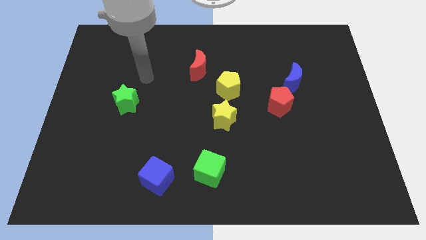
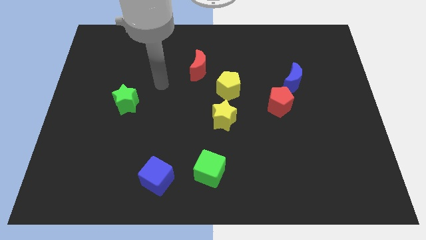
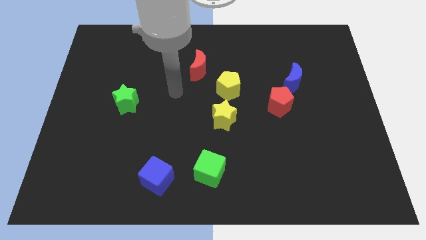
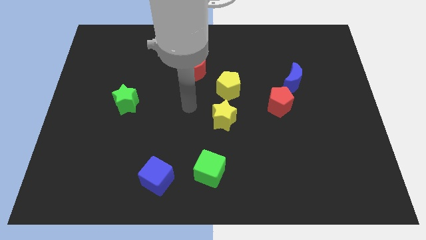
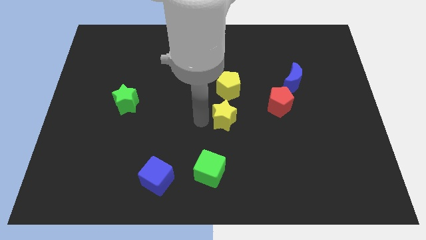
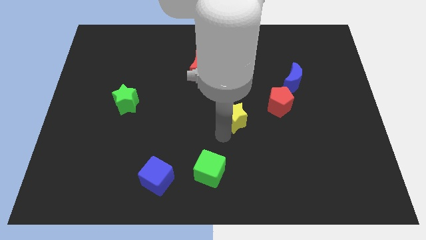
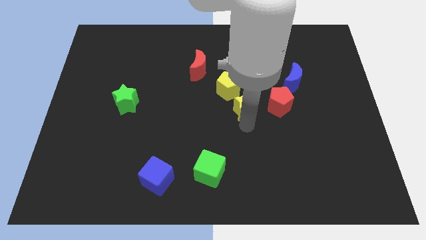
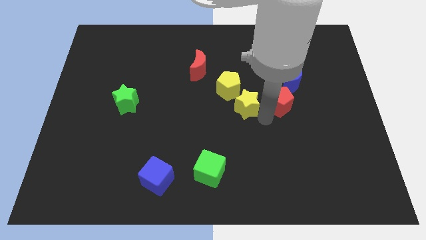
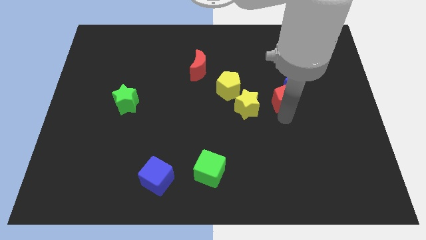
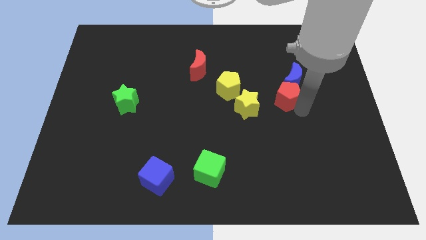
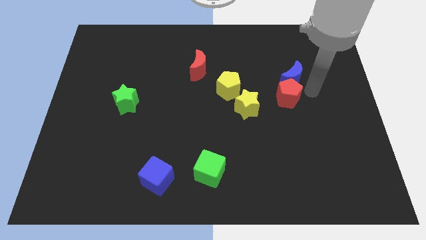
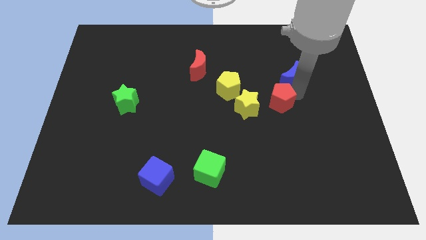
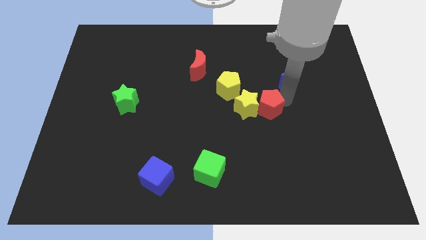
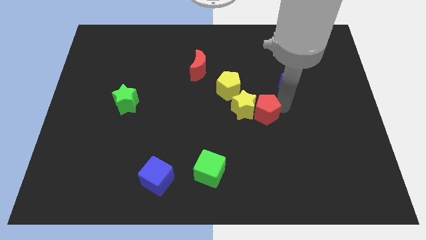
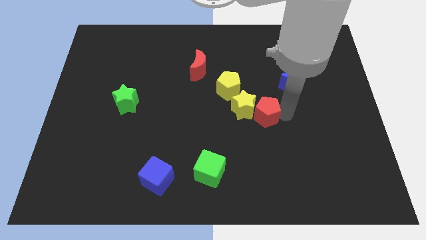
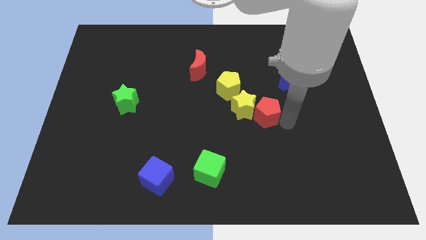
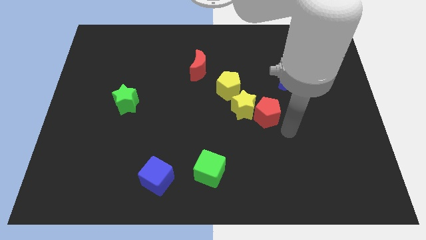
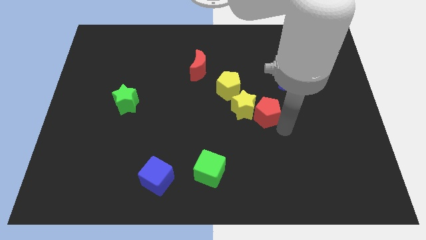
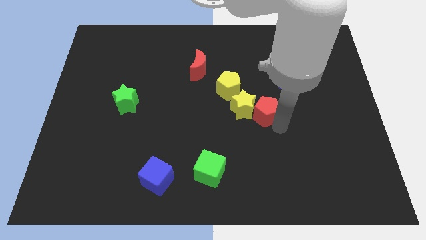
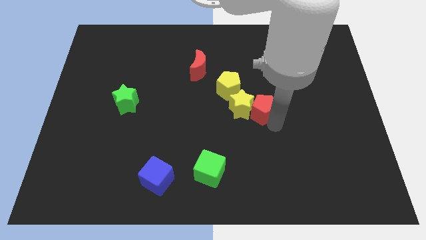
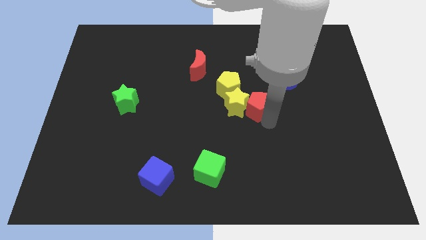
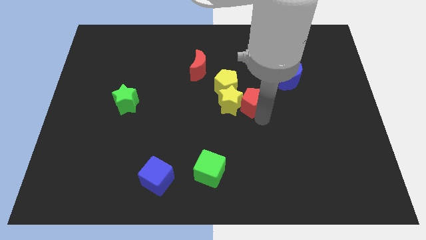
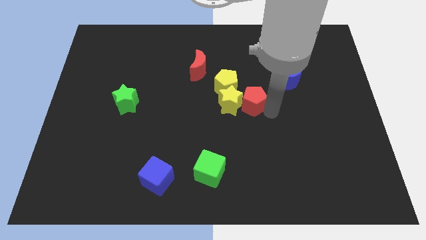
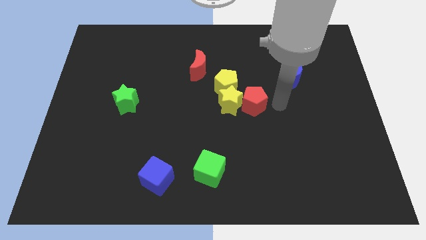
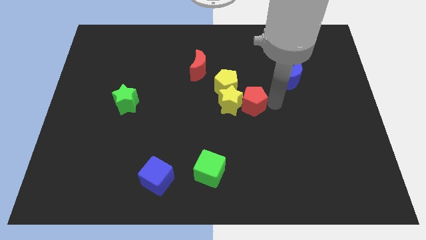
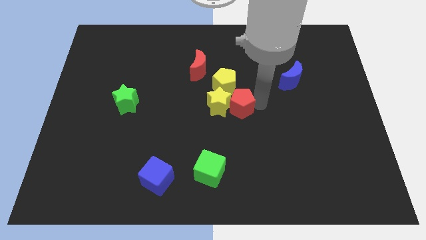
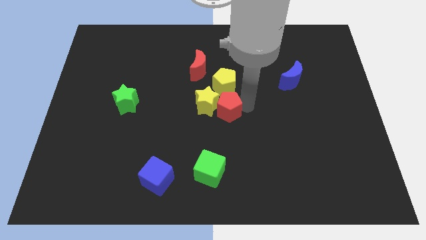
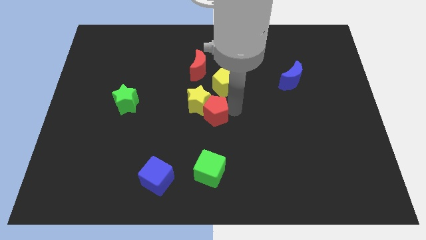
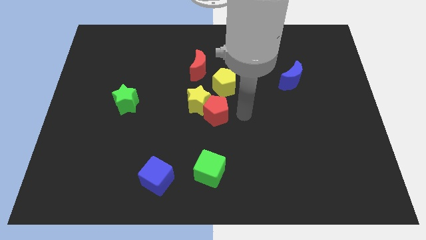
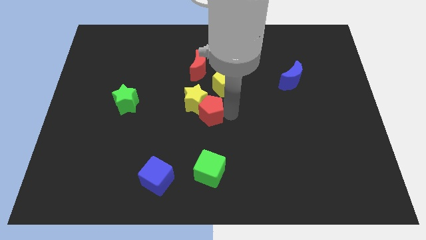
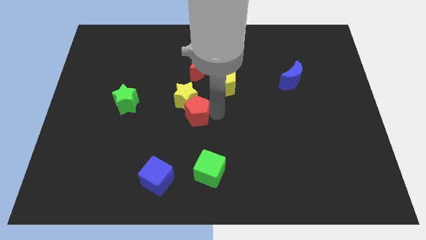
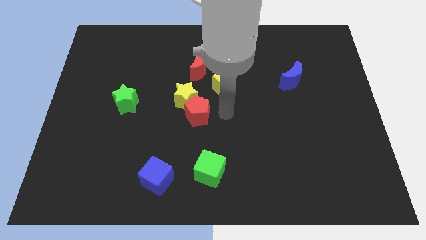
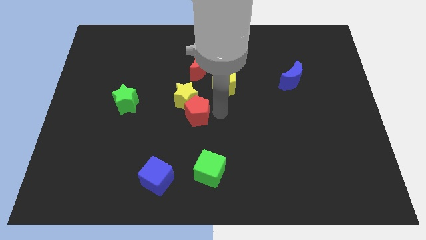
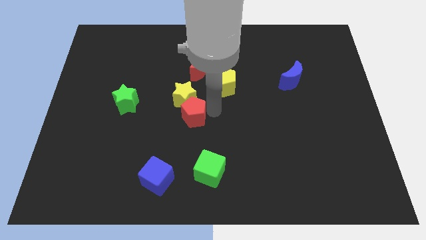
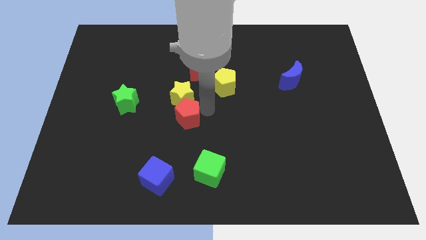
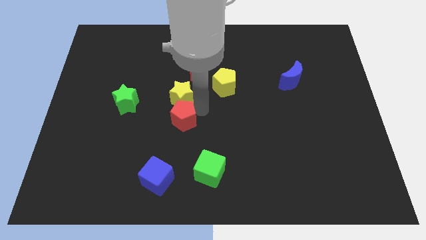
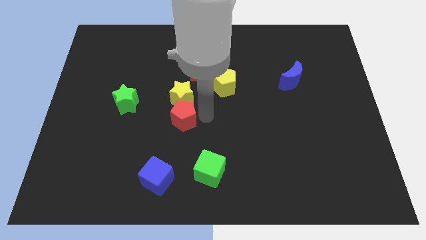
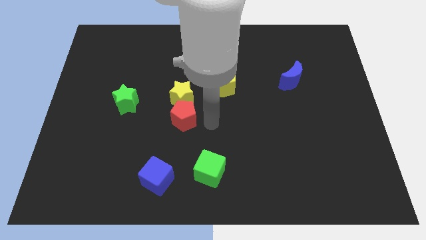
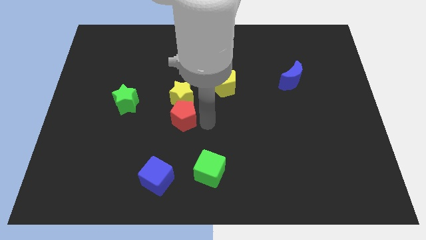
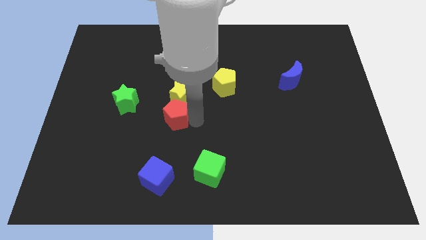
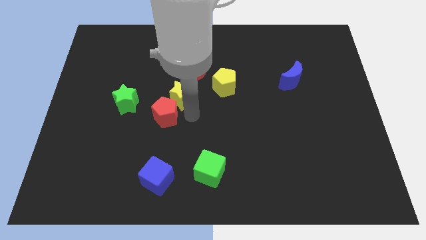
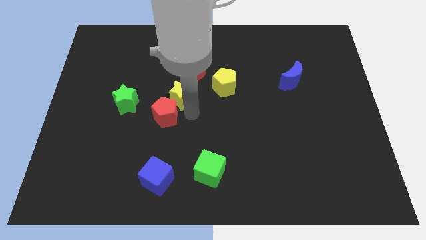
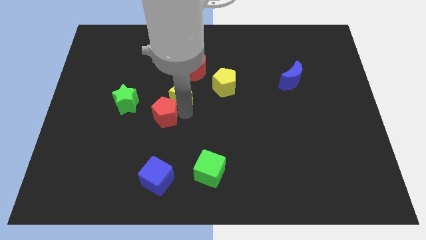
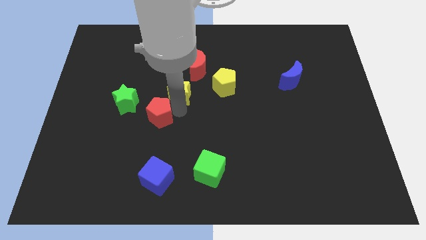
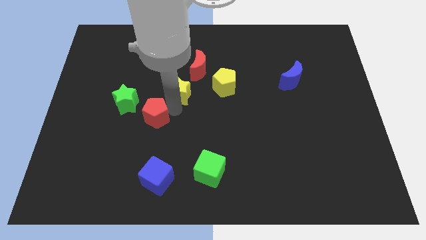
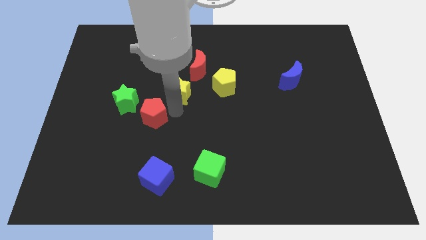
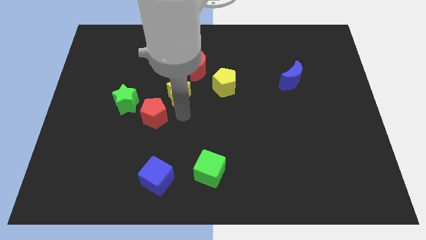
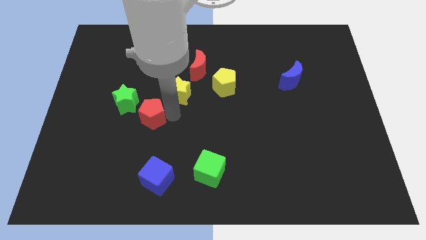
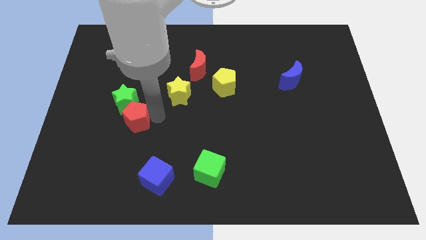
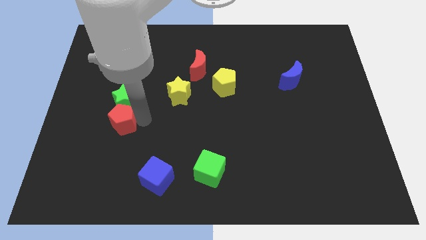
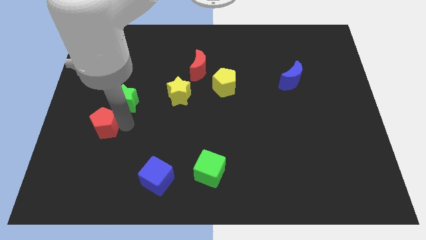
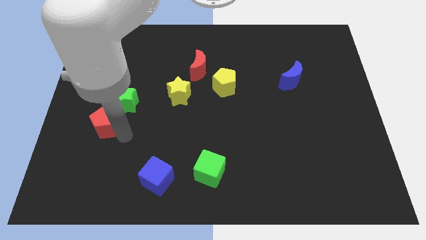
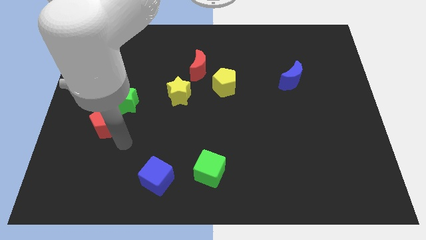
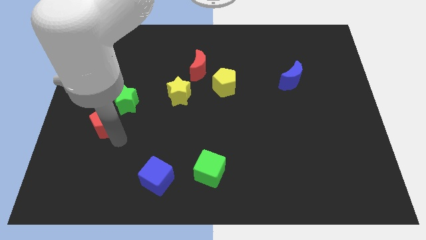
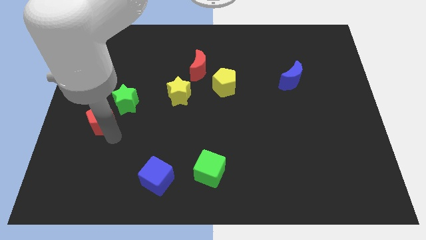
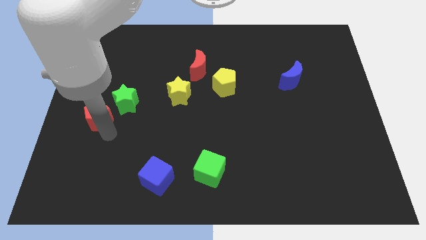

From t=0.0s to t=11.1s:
slide the red pentagon to the center left

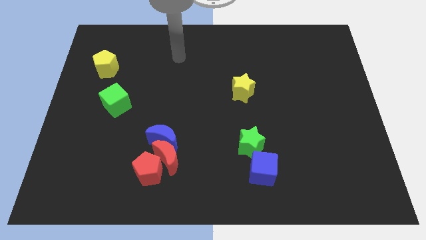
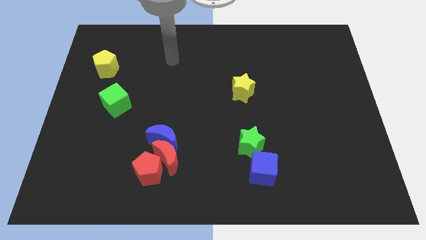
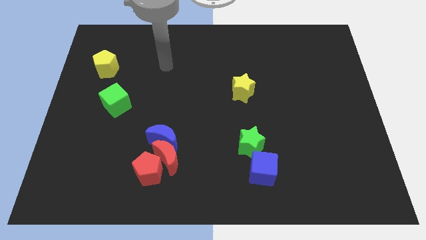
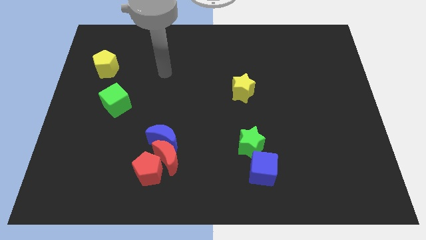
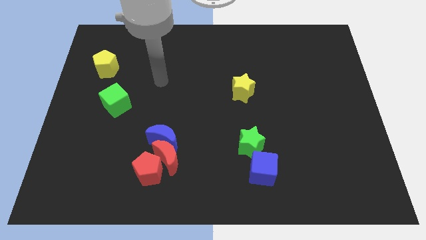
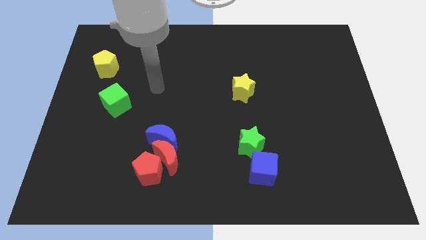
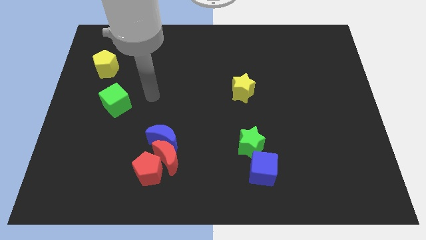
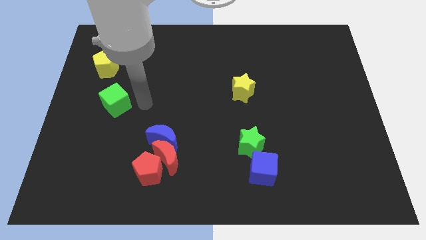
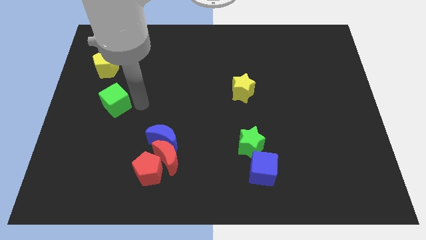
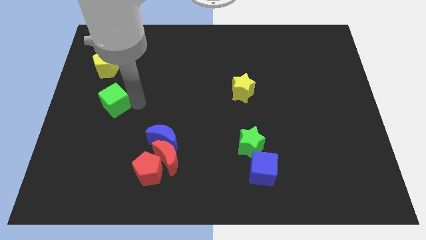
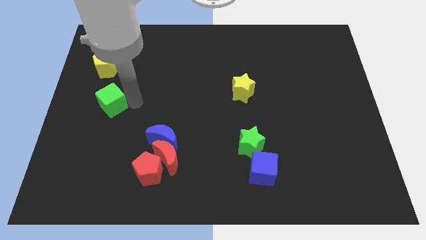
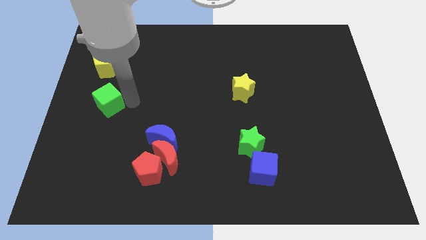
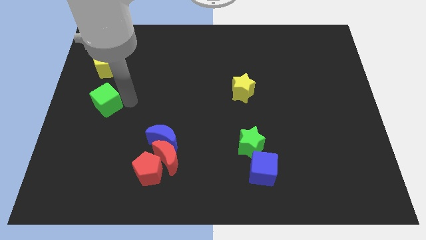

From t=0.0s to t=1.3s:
slide the green cube to the center left
